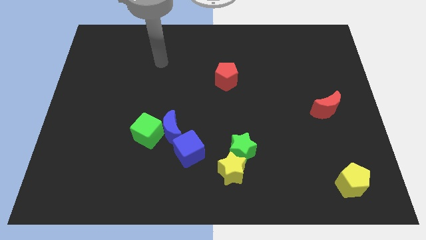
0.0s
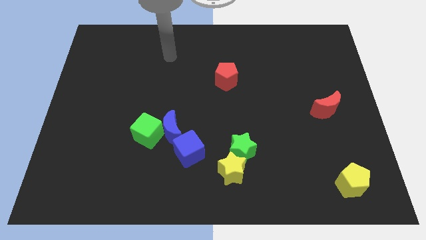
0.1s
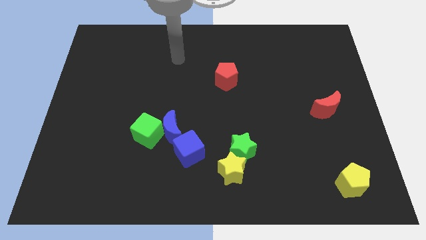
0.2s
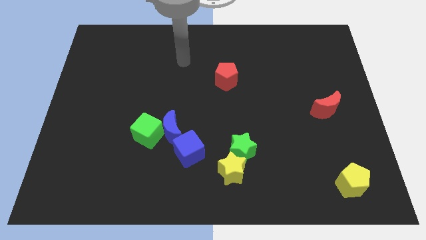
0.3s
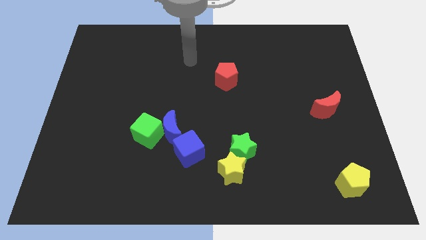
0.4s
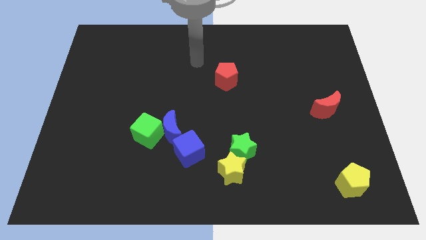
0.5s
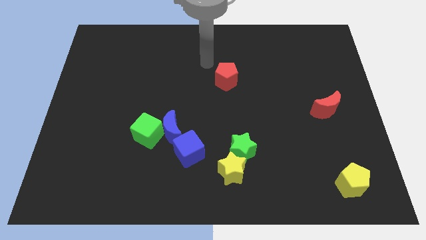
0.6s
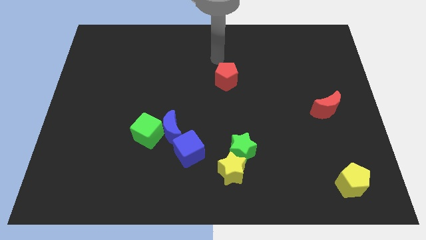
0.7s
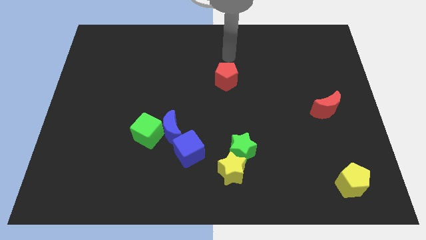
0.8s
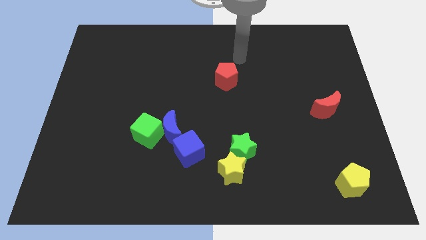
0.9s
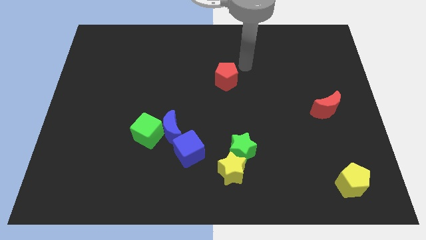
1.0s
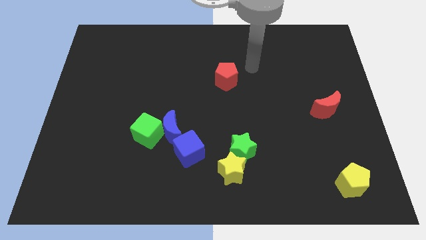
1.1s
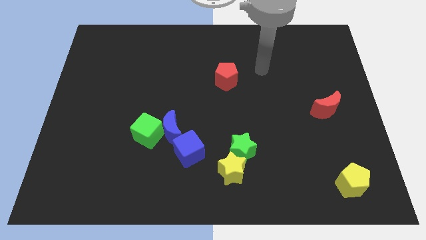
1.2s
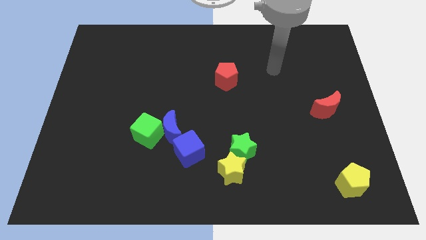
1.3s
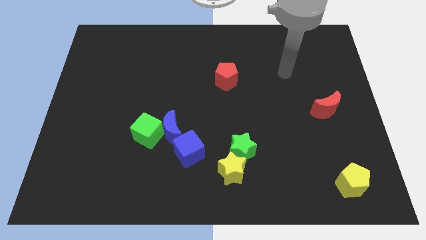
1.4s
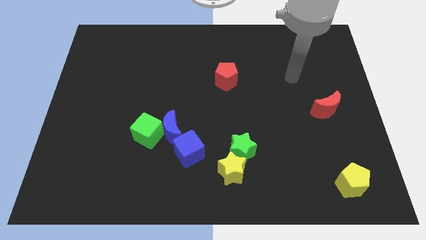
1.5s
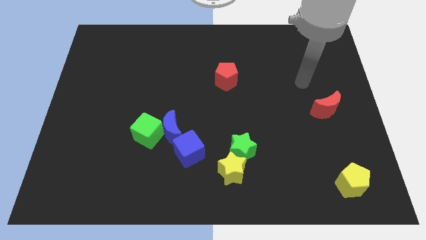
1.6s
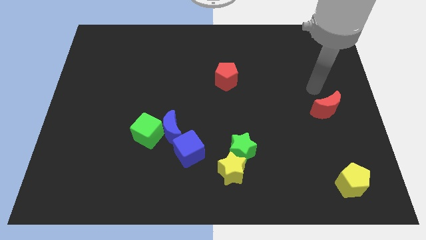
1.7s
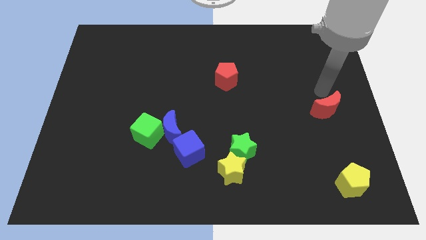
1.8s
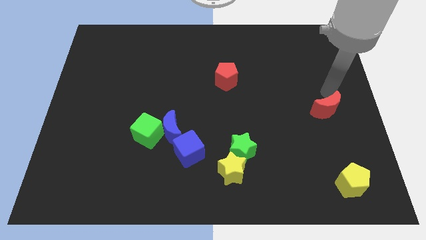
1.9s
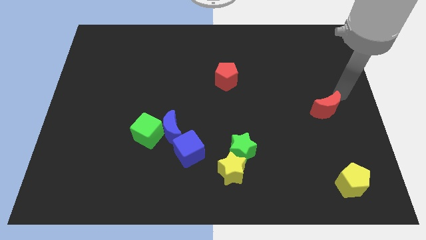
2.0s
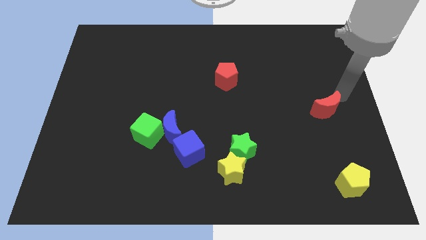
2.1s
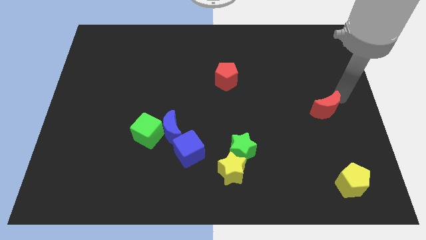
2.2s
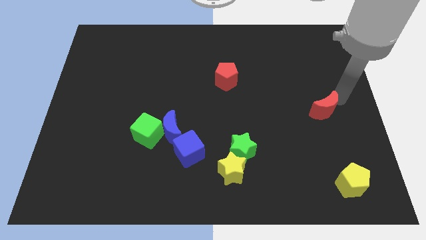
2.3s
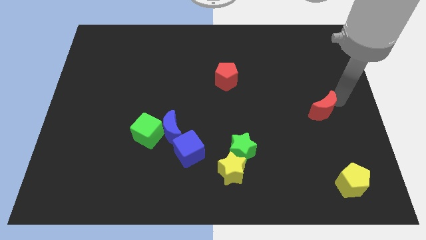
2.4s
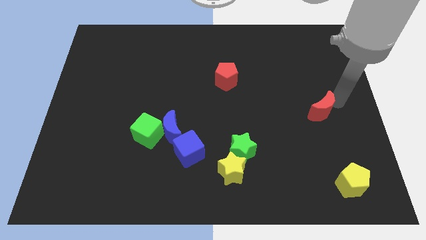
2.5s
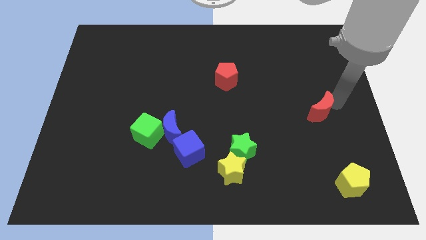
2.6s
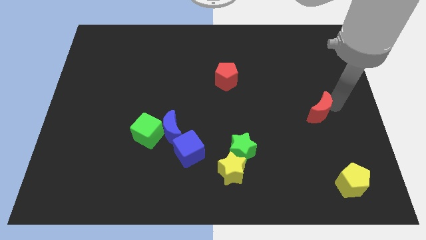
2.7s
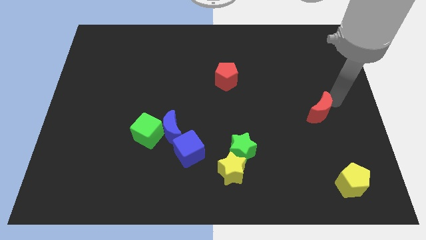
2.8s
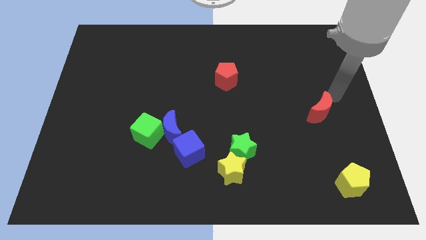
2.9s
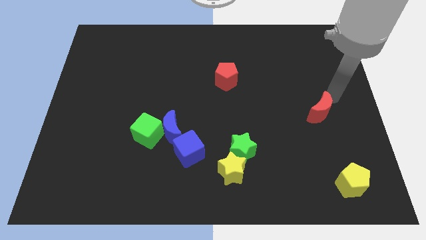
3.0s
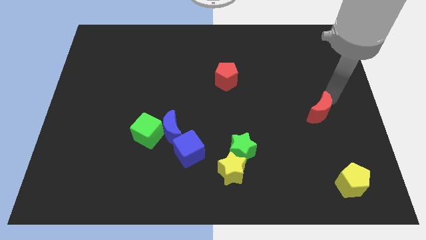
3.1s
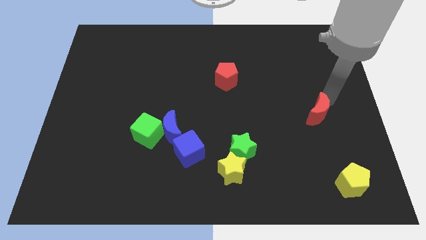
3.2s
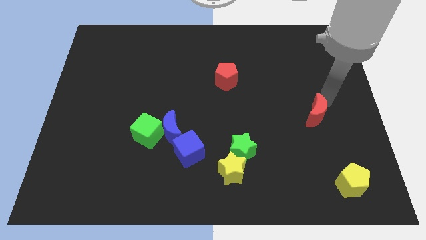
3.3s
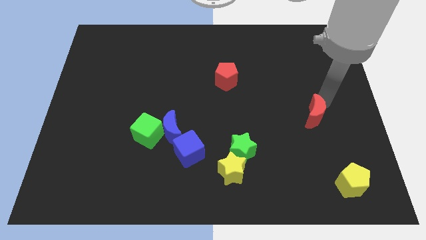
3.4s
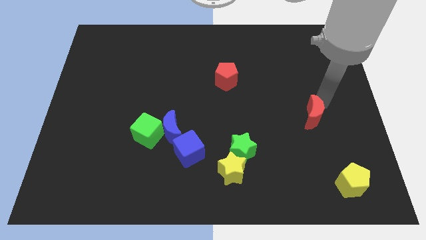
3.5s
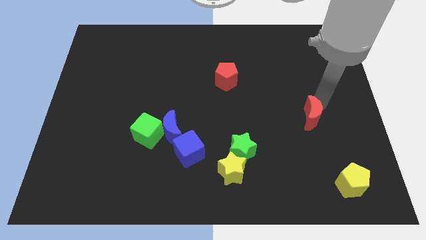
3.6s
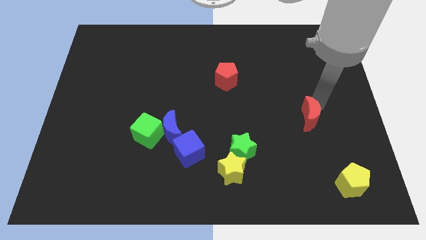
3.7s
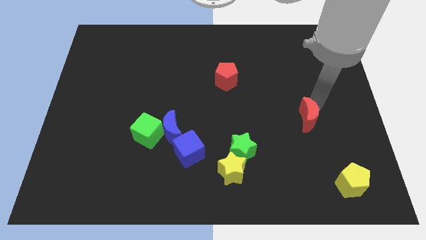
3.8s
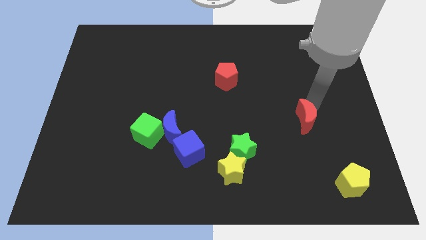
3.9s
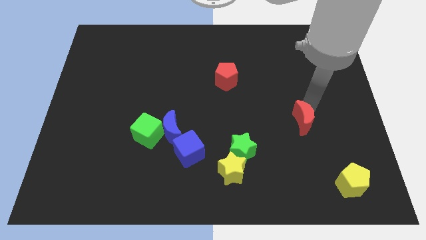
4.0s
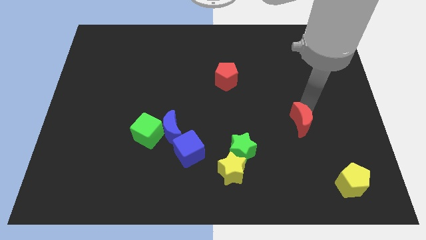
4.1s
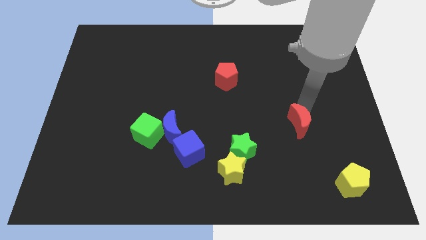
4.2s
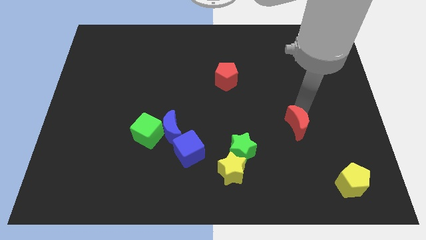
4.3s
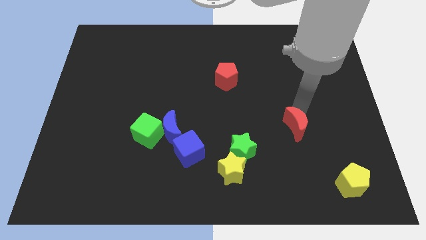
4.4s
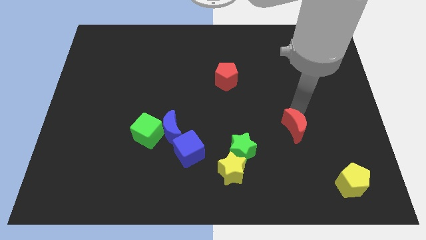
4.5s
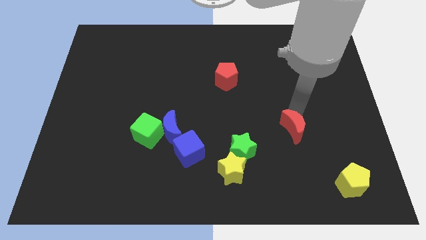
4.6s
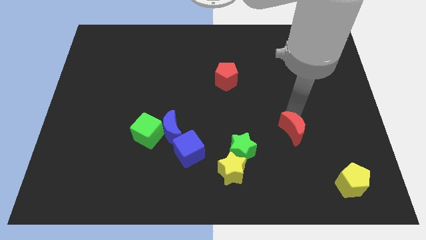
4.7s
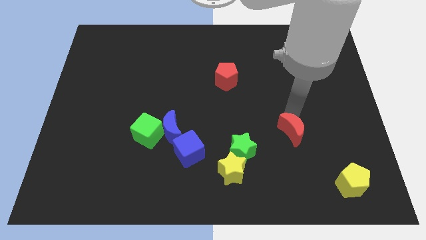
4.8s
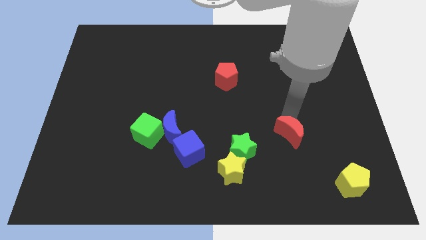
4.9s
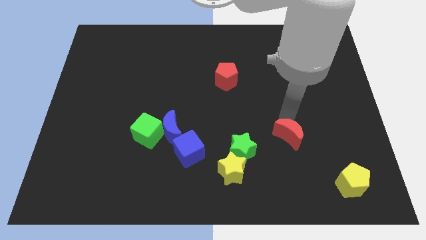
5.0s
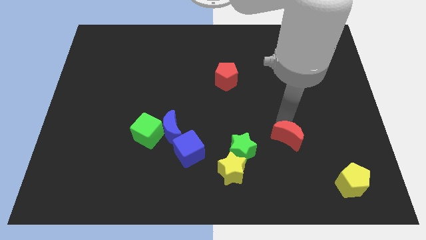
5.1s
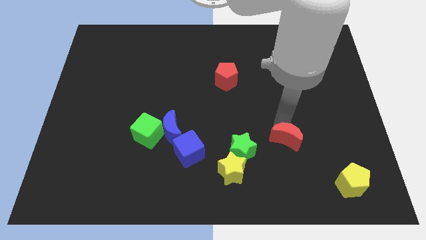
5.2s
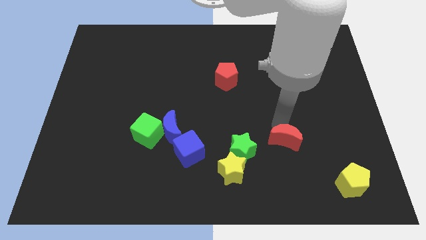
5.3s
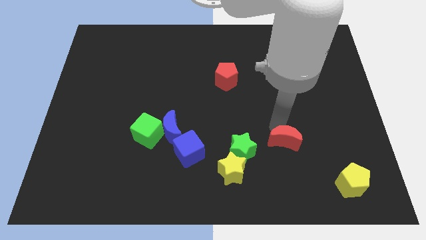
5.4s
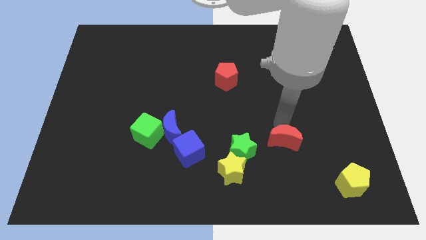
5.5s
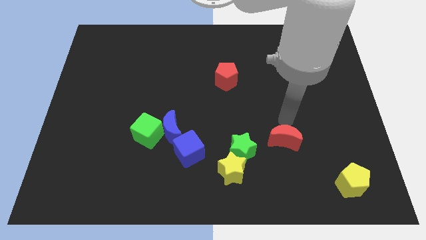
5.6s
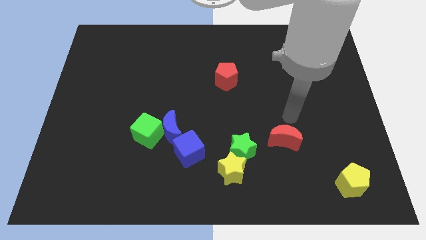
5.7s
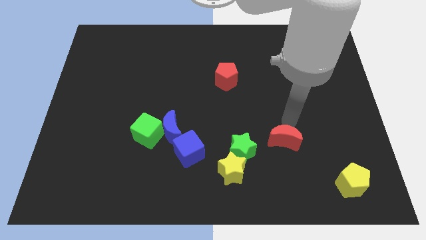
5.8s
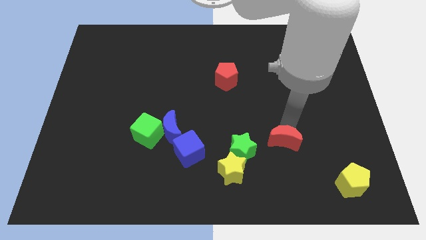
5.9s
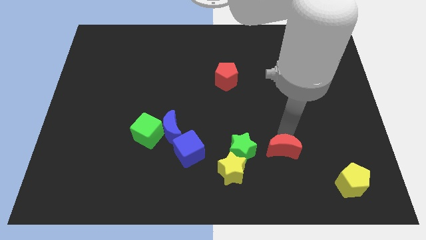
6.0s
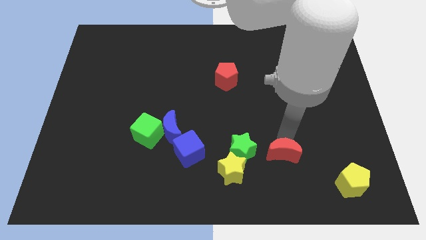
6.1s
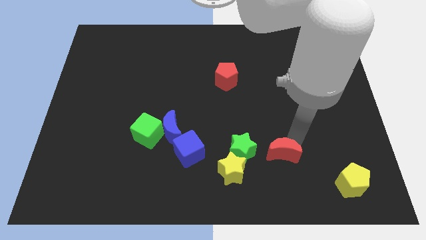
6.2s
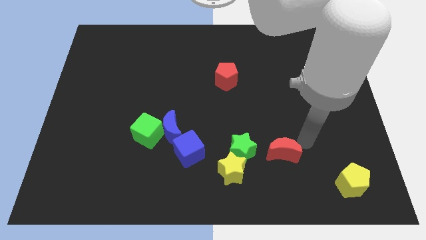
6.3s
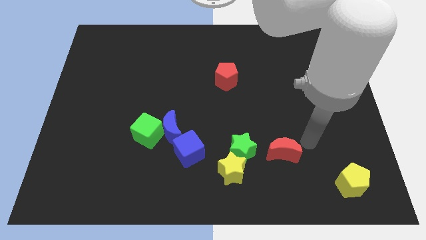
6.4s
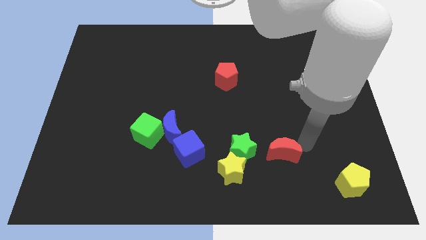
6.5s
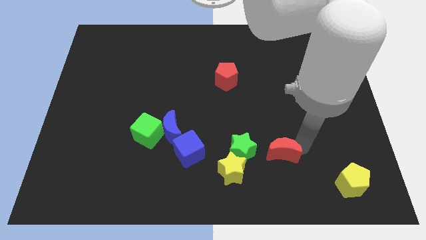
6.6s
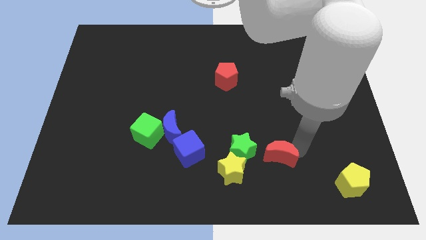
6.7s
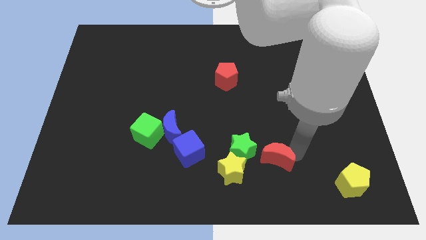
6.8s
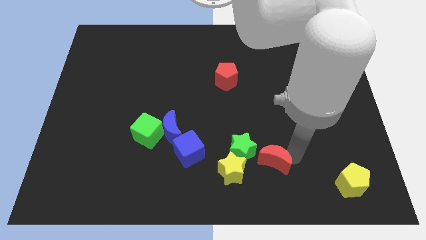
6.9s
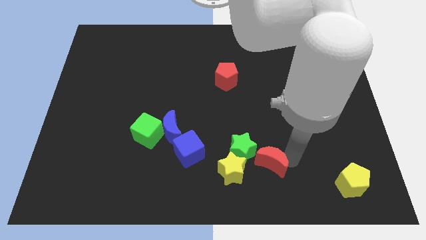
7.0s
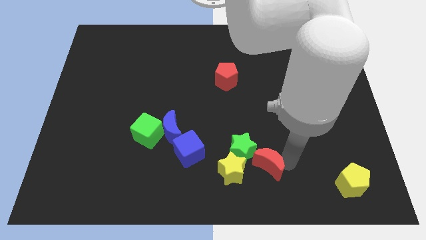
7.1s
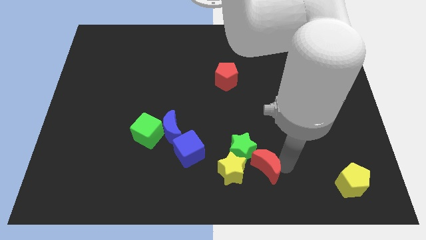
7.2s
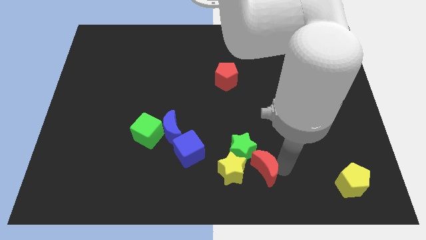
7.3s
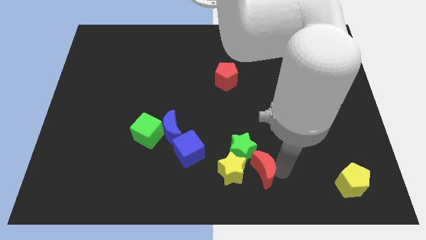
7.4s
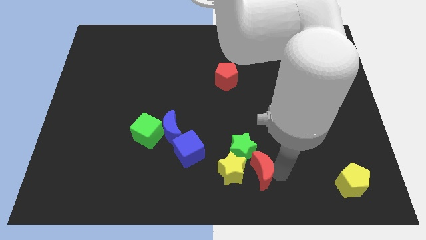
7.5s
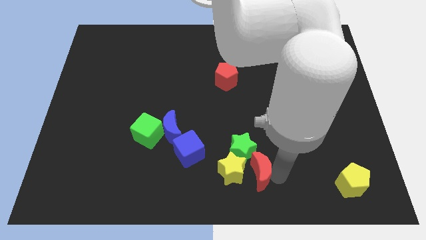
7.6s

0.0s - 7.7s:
move the red moon to the yellow star
